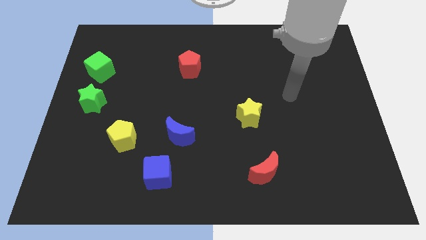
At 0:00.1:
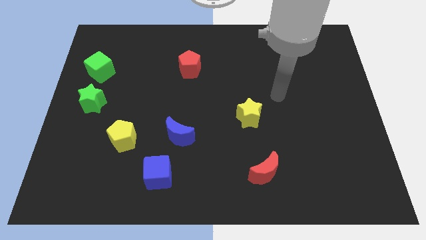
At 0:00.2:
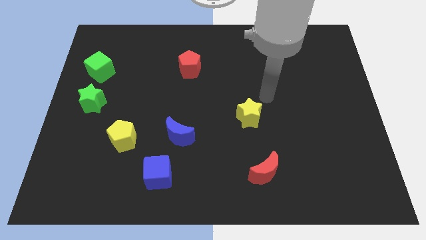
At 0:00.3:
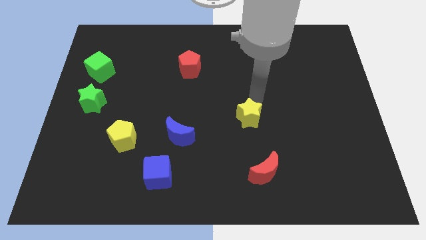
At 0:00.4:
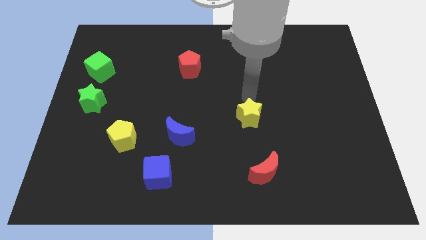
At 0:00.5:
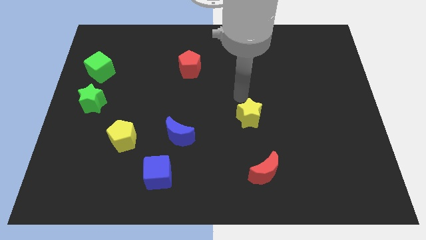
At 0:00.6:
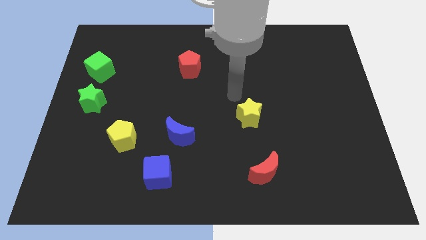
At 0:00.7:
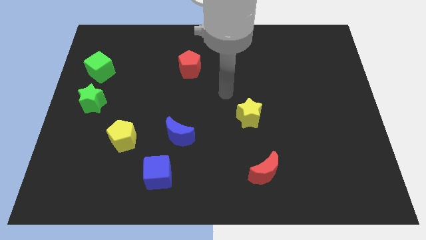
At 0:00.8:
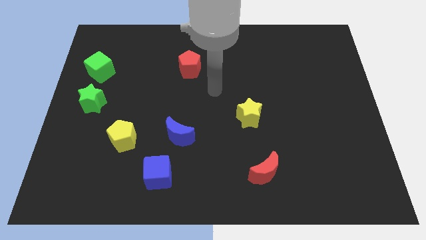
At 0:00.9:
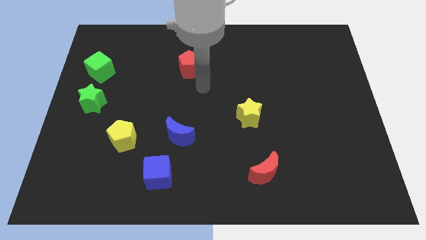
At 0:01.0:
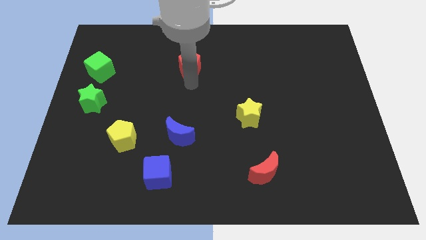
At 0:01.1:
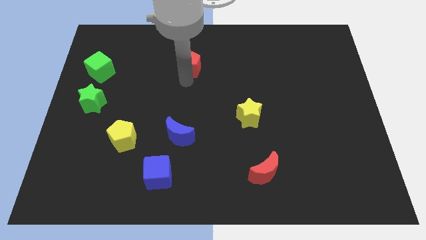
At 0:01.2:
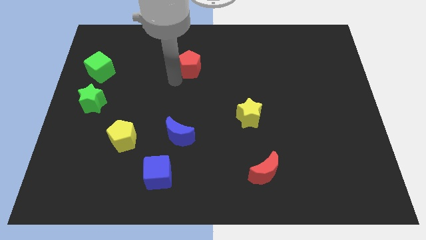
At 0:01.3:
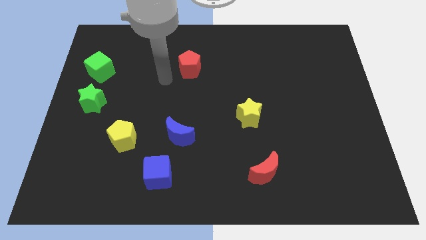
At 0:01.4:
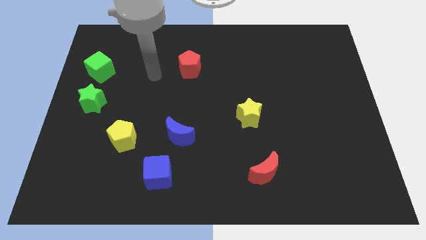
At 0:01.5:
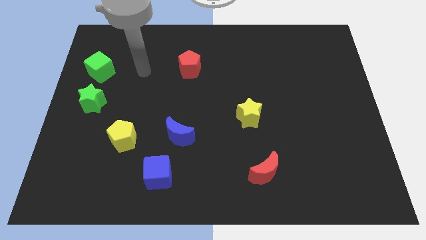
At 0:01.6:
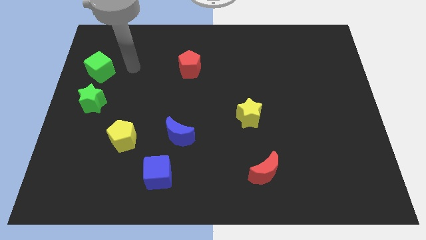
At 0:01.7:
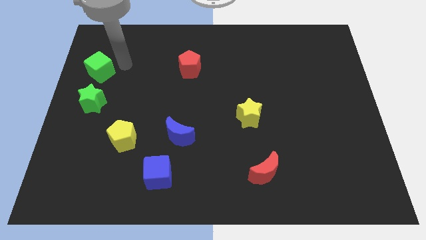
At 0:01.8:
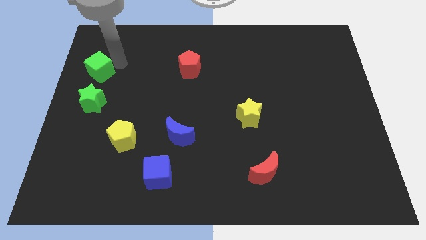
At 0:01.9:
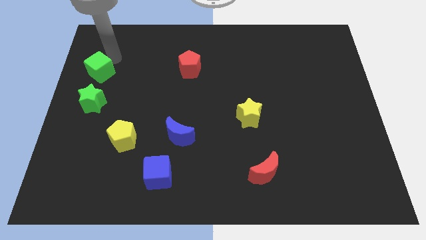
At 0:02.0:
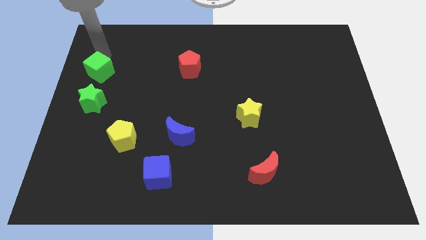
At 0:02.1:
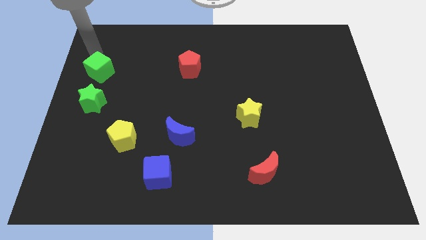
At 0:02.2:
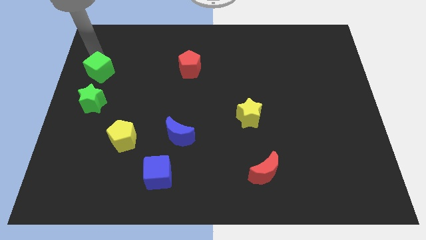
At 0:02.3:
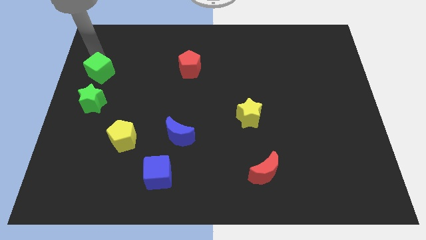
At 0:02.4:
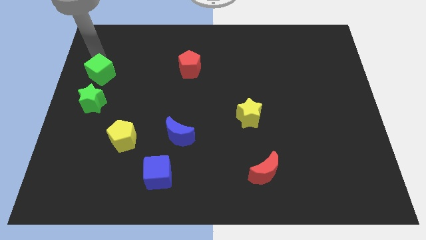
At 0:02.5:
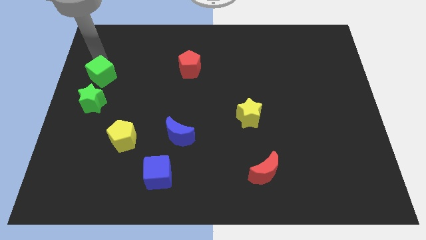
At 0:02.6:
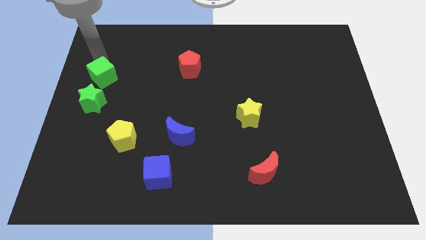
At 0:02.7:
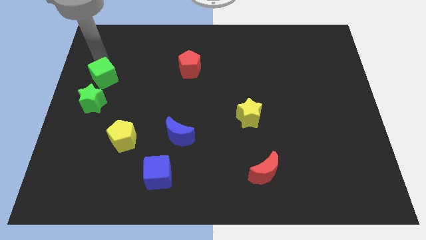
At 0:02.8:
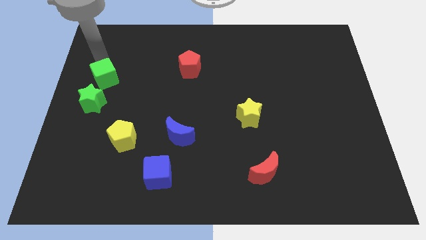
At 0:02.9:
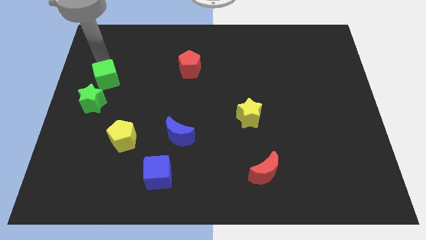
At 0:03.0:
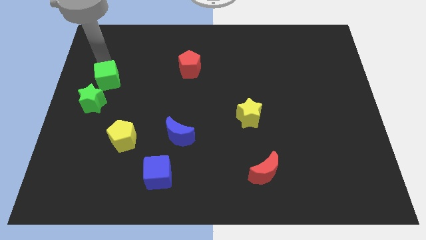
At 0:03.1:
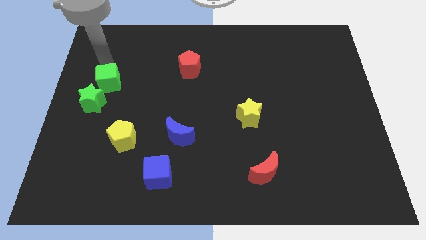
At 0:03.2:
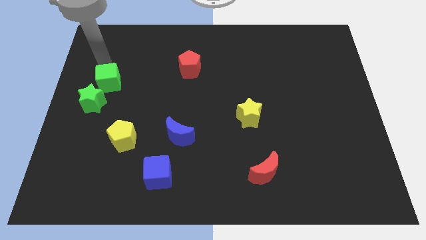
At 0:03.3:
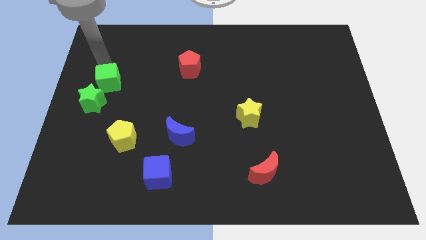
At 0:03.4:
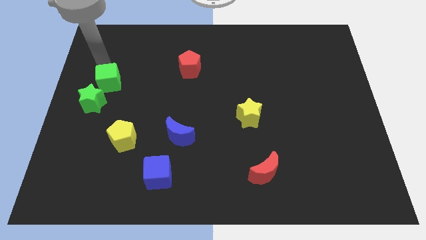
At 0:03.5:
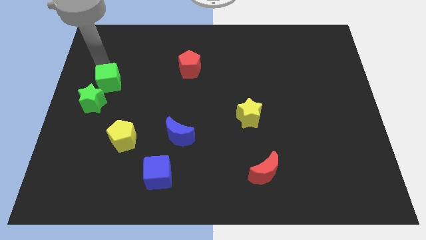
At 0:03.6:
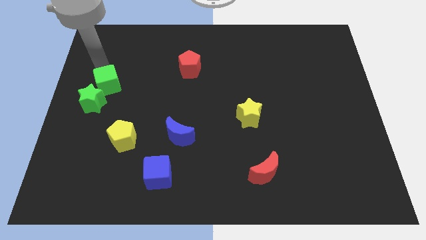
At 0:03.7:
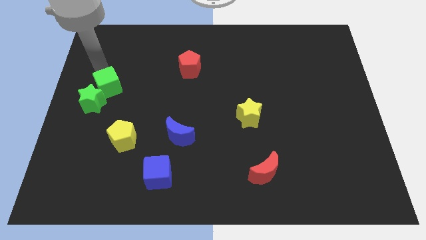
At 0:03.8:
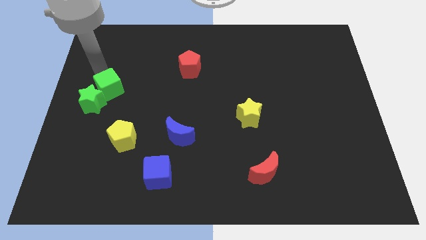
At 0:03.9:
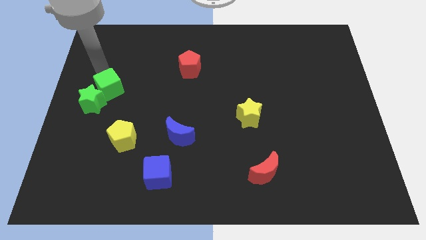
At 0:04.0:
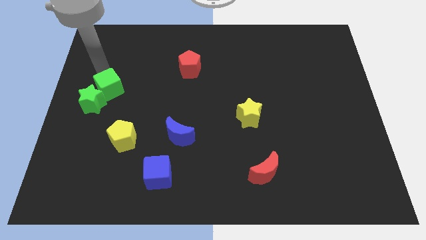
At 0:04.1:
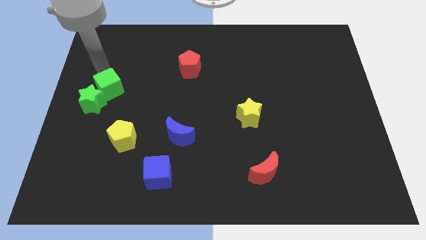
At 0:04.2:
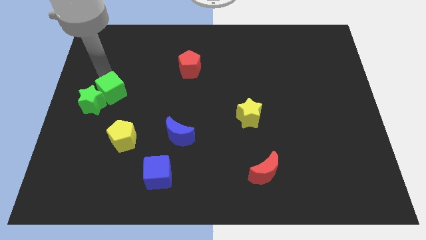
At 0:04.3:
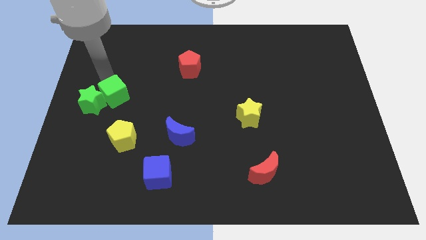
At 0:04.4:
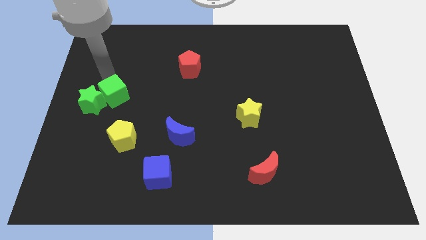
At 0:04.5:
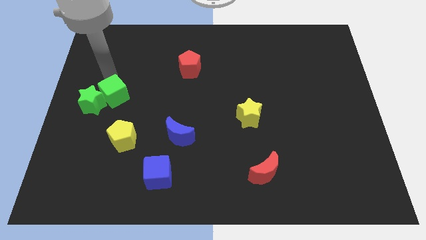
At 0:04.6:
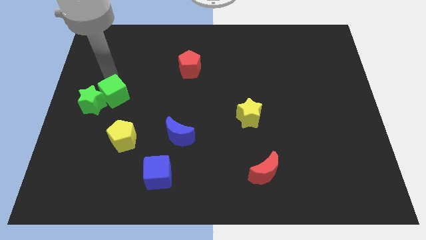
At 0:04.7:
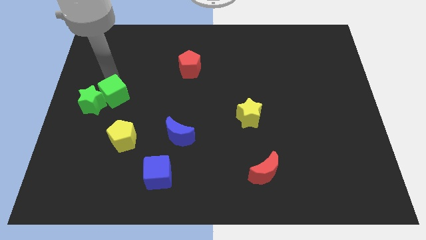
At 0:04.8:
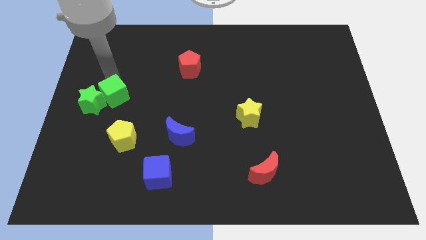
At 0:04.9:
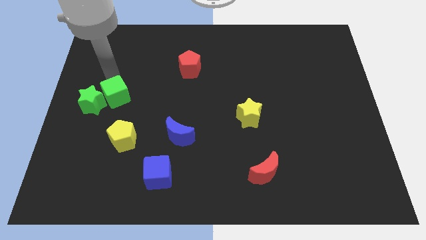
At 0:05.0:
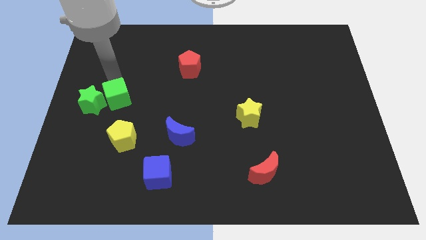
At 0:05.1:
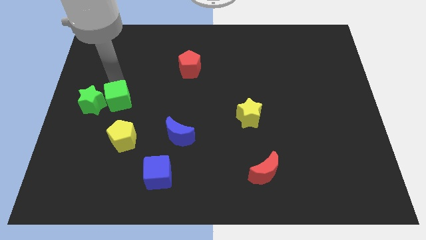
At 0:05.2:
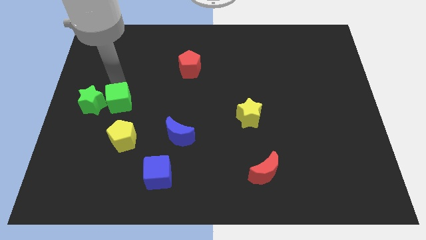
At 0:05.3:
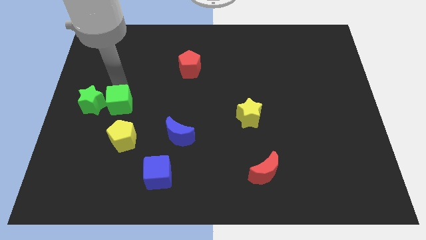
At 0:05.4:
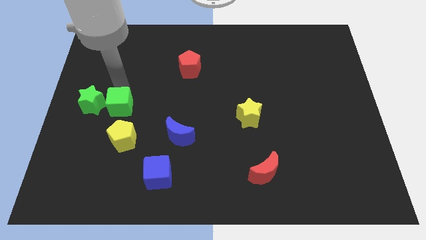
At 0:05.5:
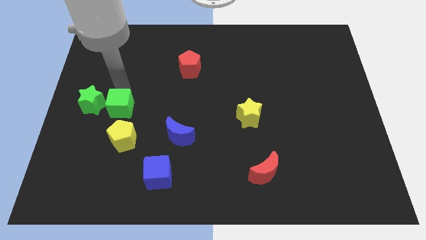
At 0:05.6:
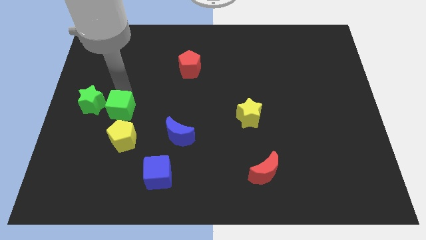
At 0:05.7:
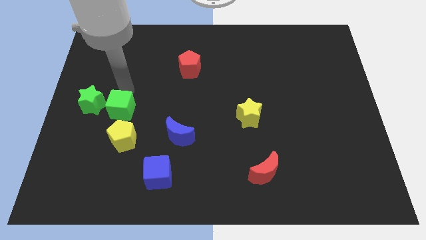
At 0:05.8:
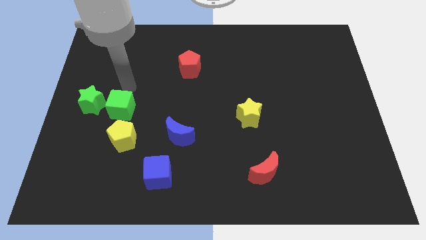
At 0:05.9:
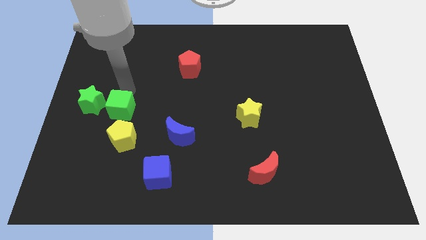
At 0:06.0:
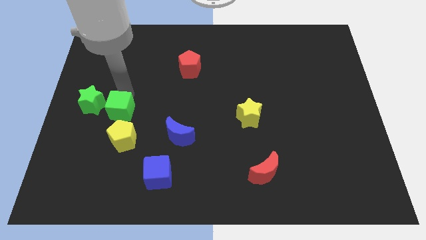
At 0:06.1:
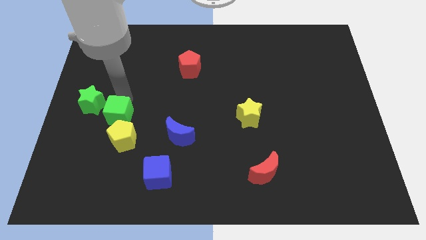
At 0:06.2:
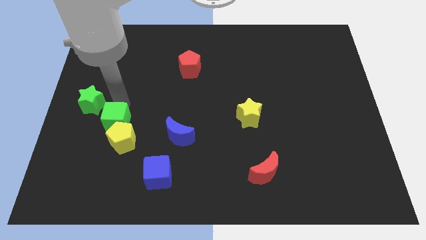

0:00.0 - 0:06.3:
push the green cube towards the yellow pentagon

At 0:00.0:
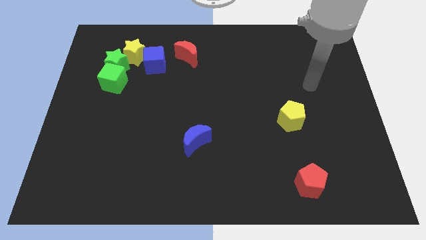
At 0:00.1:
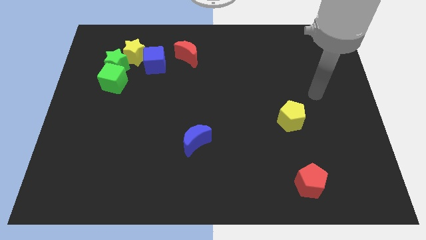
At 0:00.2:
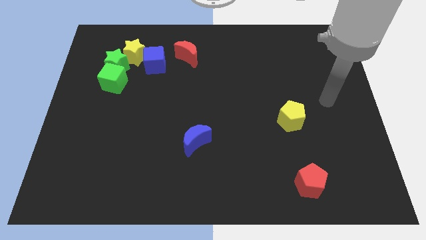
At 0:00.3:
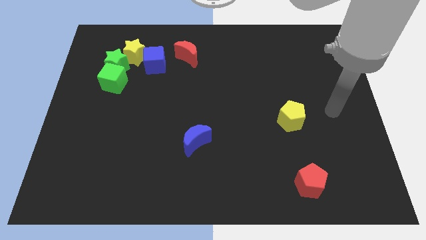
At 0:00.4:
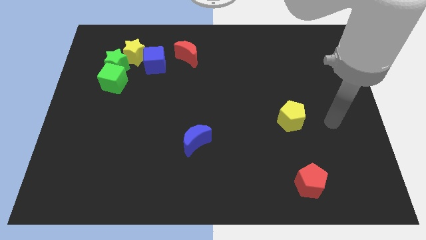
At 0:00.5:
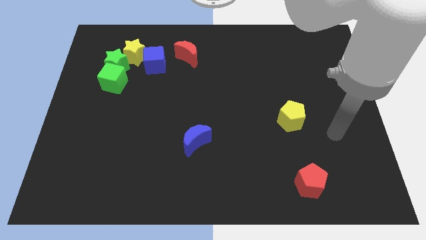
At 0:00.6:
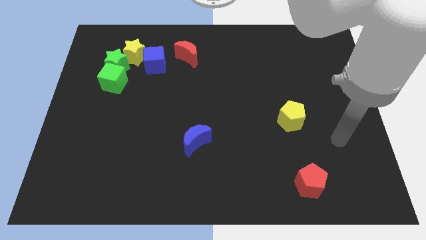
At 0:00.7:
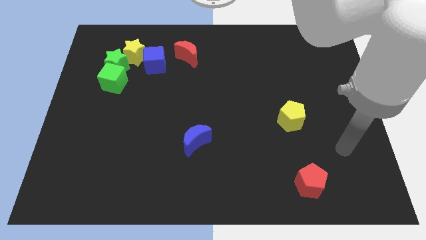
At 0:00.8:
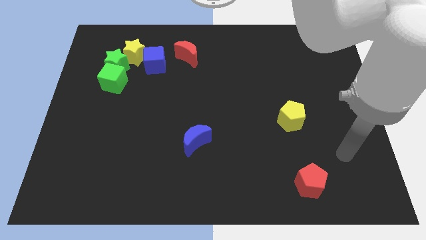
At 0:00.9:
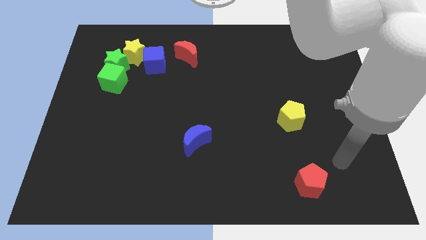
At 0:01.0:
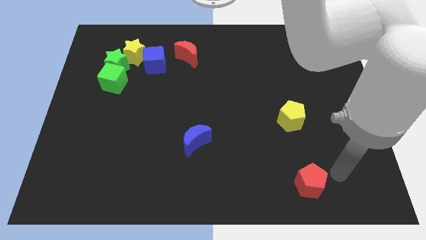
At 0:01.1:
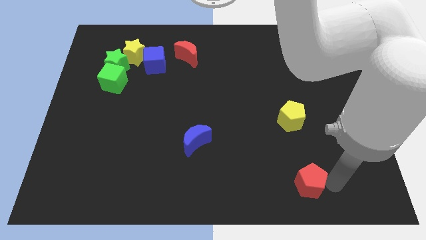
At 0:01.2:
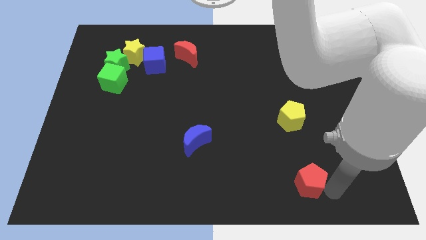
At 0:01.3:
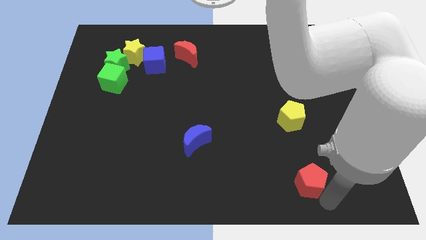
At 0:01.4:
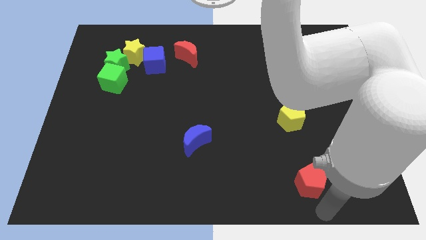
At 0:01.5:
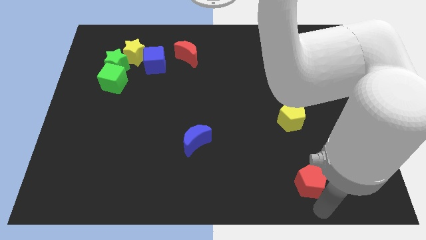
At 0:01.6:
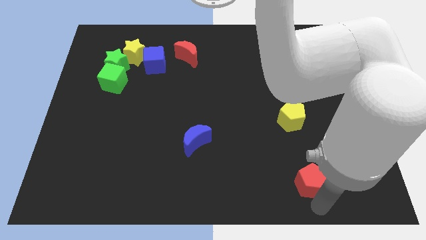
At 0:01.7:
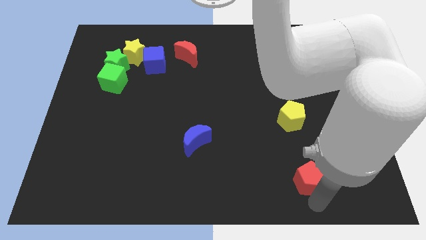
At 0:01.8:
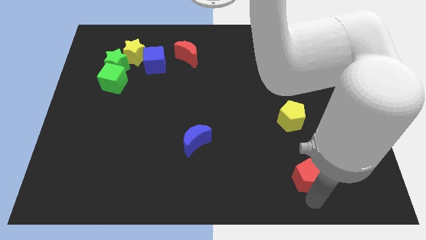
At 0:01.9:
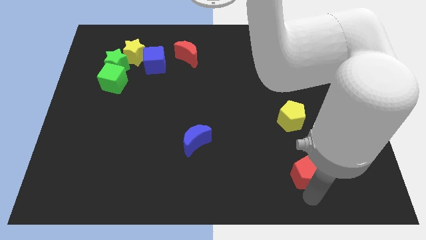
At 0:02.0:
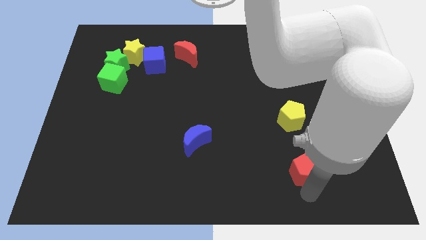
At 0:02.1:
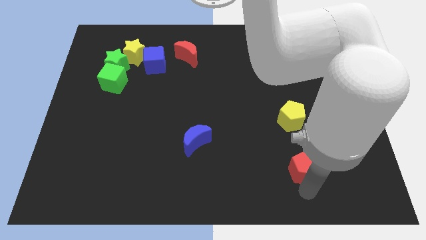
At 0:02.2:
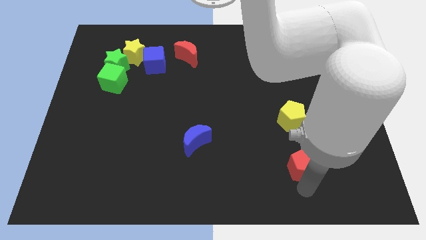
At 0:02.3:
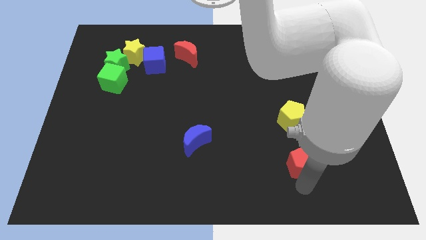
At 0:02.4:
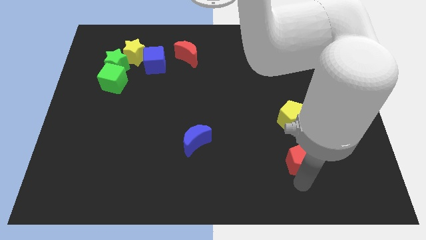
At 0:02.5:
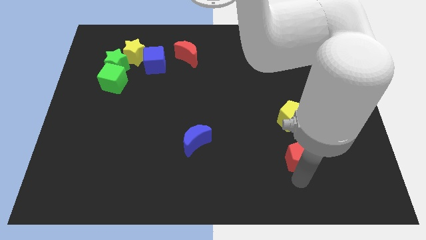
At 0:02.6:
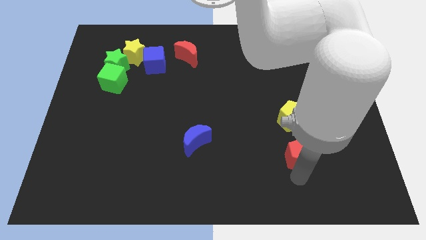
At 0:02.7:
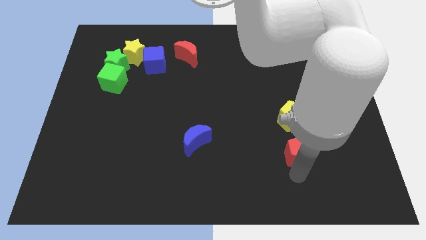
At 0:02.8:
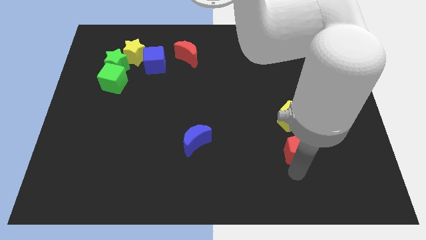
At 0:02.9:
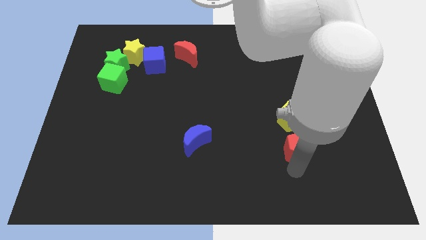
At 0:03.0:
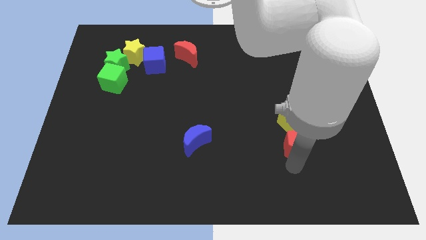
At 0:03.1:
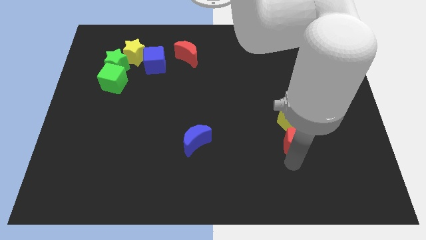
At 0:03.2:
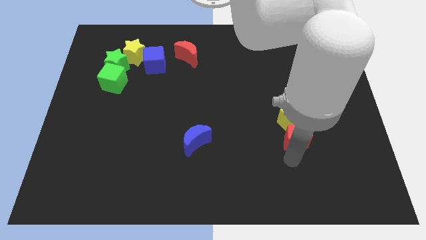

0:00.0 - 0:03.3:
push the red pentagon close to the yellow pentagon
